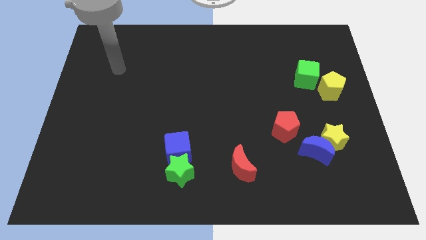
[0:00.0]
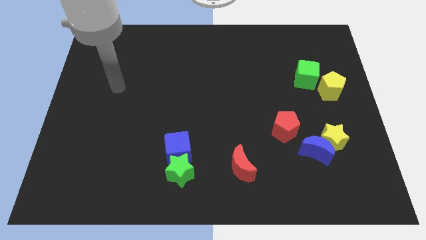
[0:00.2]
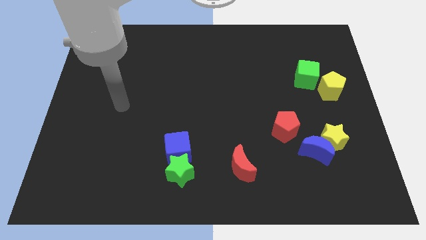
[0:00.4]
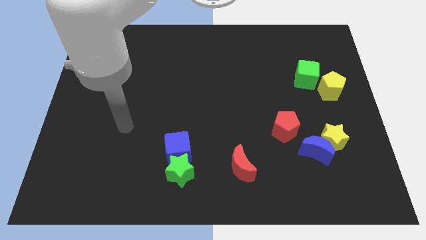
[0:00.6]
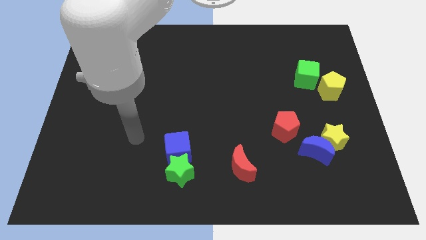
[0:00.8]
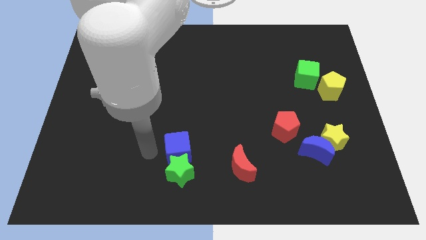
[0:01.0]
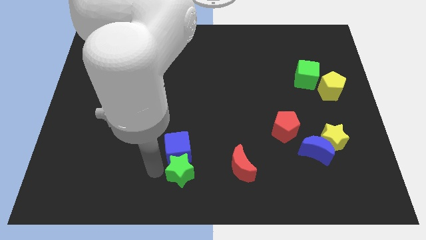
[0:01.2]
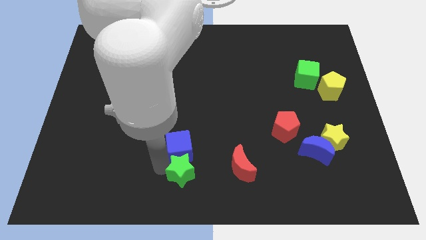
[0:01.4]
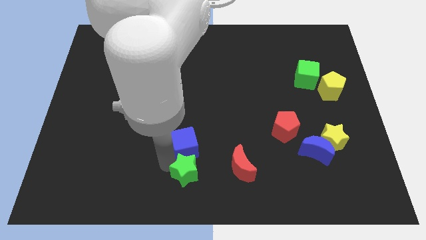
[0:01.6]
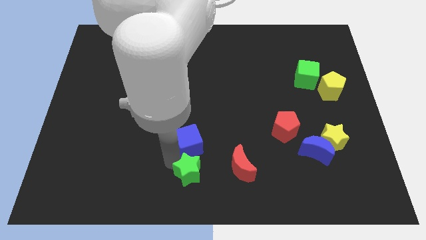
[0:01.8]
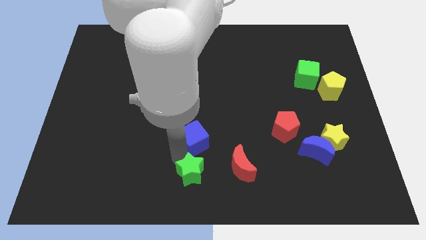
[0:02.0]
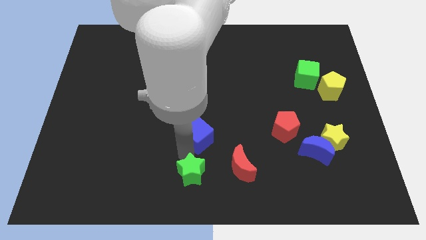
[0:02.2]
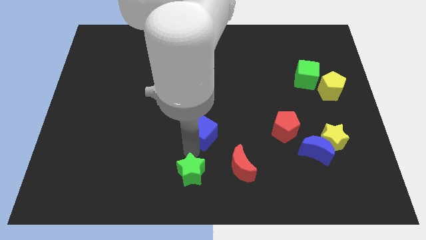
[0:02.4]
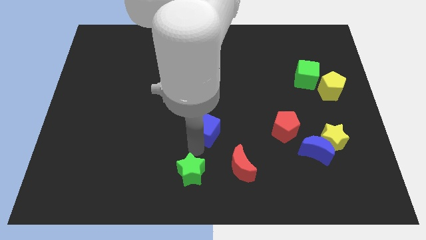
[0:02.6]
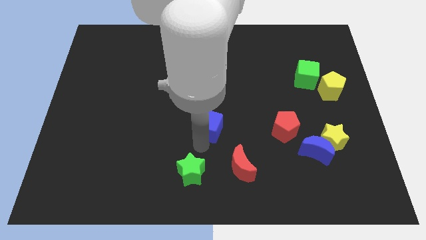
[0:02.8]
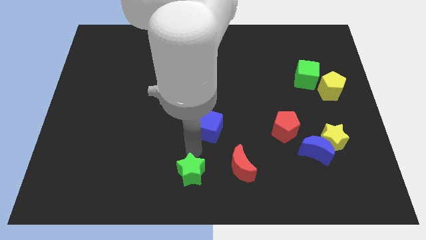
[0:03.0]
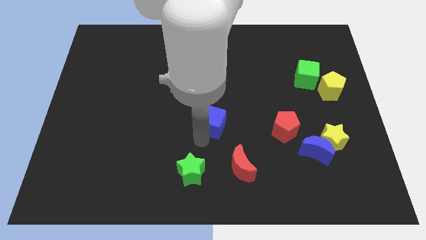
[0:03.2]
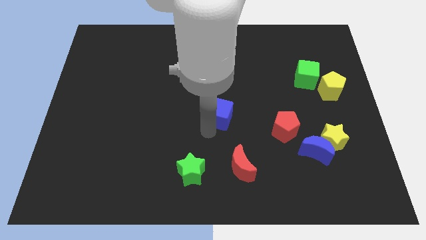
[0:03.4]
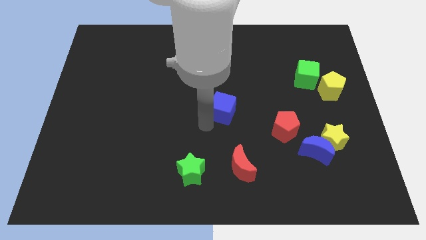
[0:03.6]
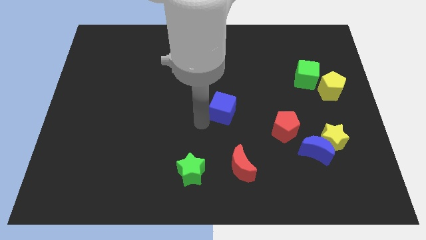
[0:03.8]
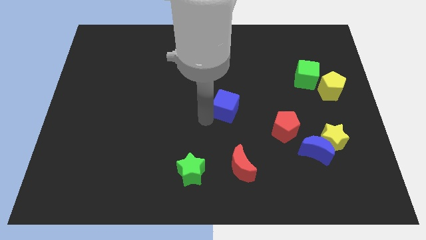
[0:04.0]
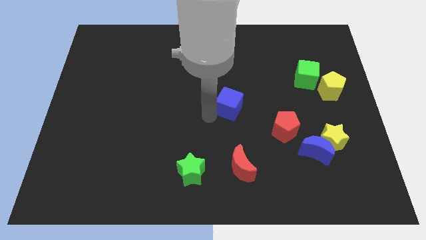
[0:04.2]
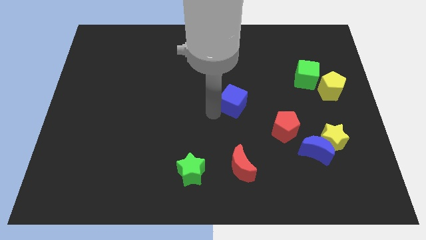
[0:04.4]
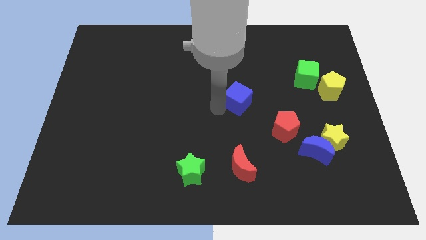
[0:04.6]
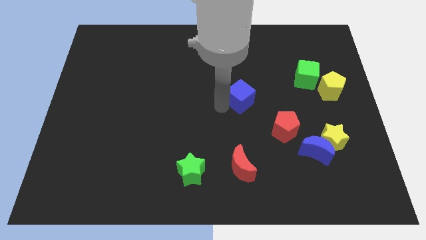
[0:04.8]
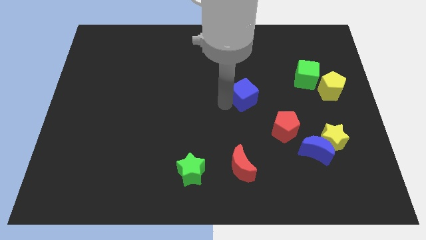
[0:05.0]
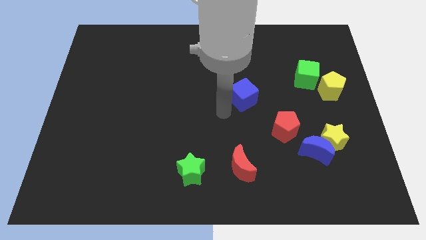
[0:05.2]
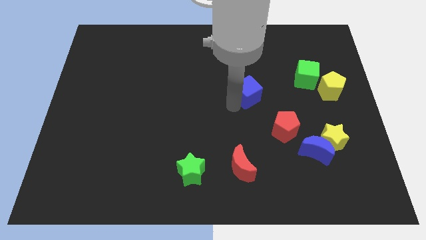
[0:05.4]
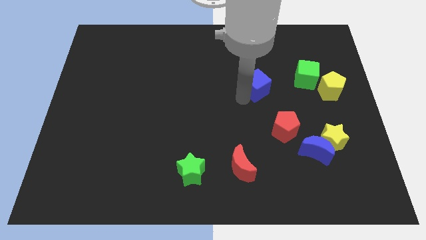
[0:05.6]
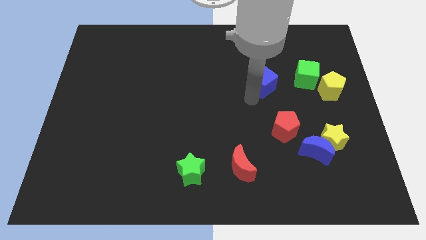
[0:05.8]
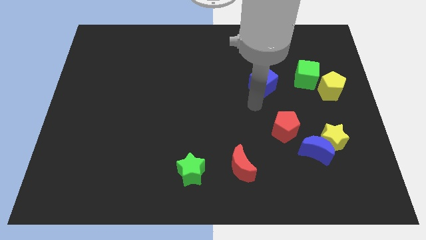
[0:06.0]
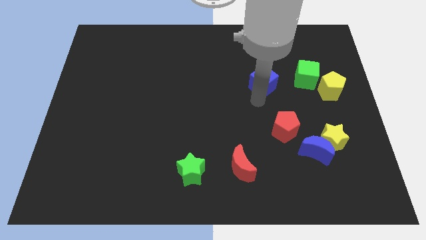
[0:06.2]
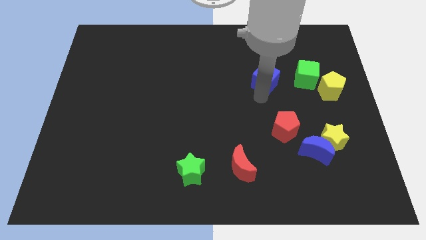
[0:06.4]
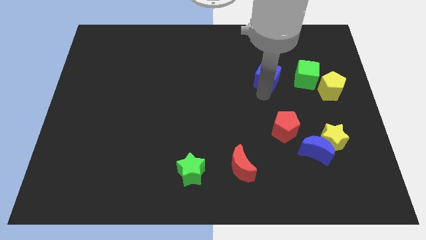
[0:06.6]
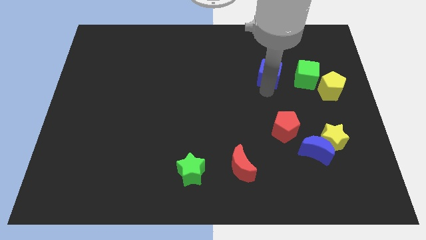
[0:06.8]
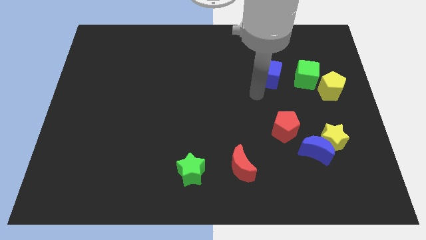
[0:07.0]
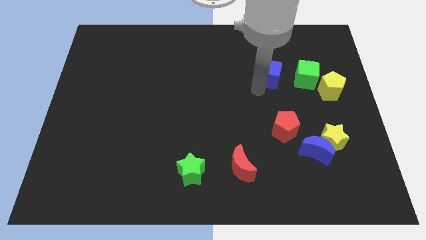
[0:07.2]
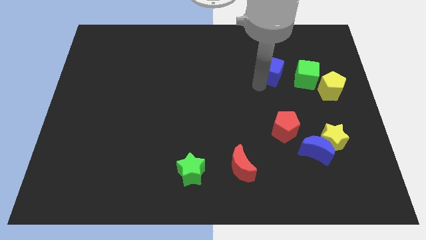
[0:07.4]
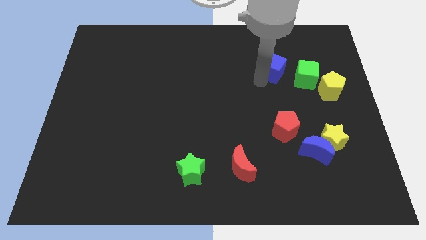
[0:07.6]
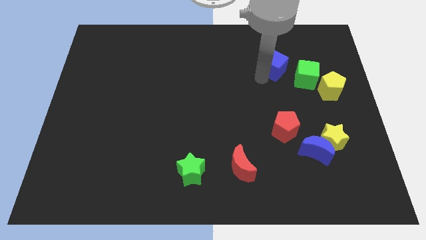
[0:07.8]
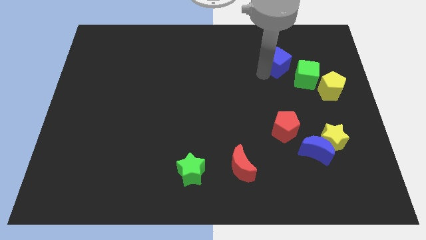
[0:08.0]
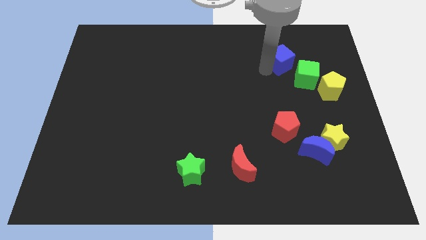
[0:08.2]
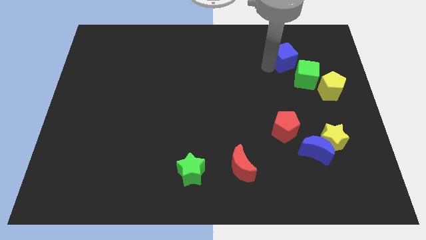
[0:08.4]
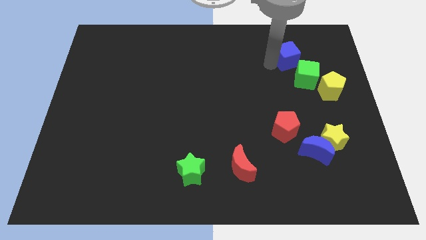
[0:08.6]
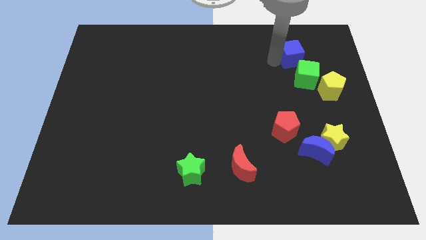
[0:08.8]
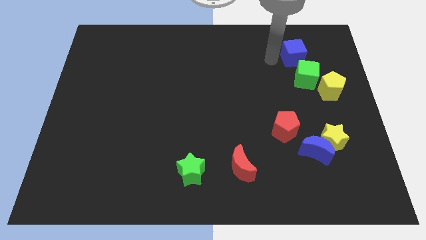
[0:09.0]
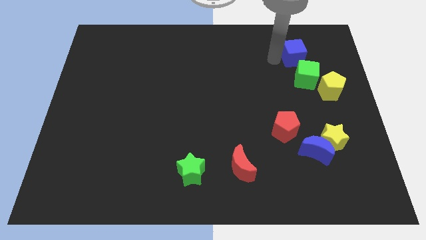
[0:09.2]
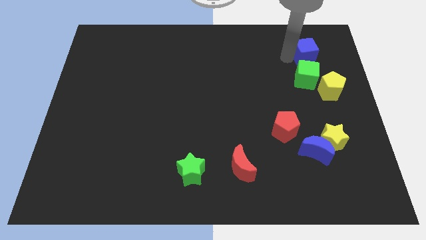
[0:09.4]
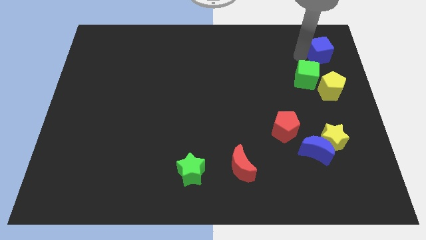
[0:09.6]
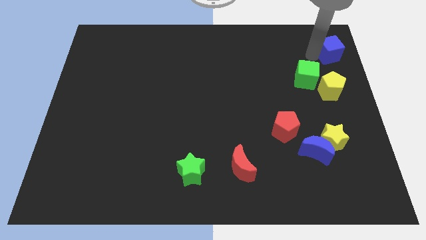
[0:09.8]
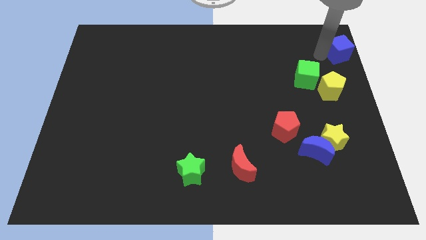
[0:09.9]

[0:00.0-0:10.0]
put the blue cube to the top right of the board

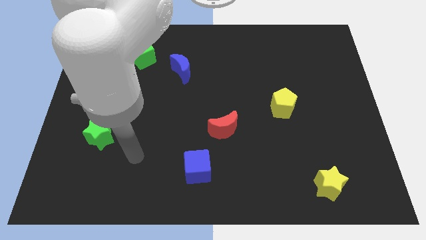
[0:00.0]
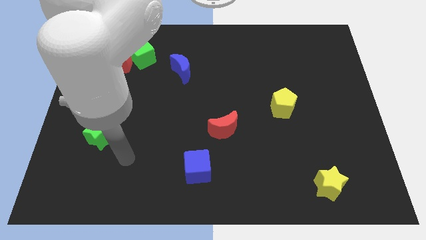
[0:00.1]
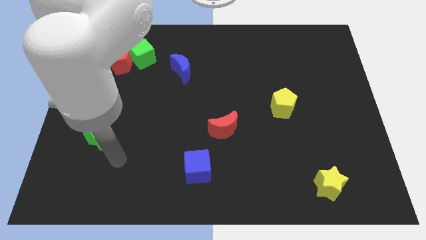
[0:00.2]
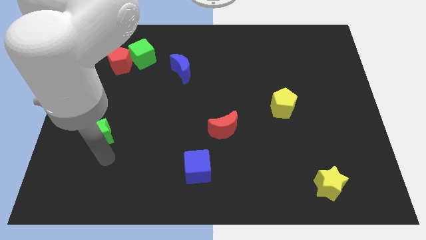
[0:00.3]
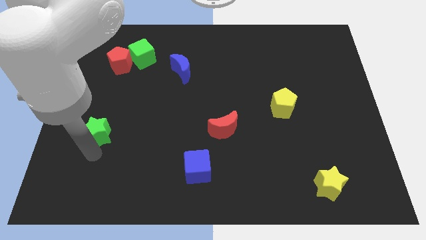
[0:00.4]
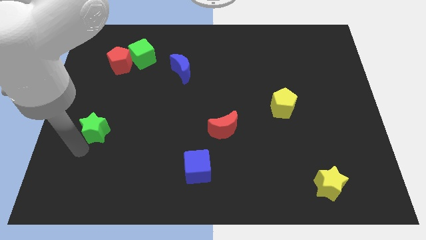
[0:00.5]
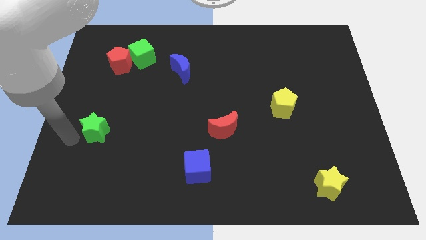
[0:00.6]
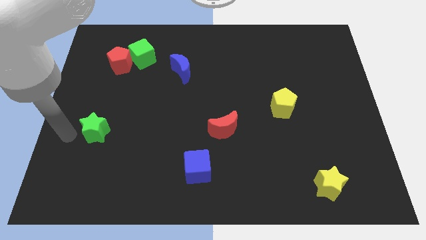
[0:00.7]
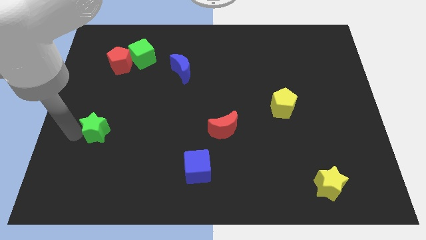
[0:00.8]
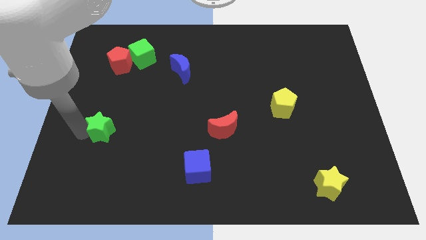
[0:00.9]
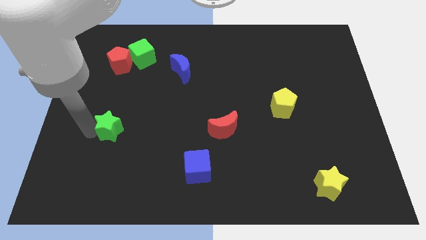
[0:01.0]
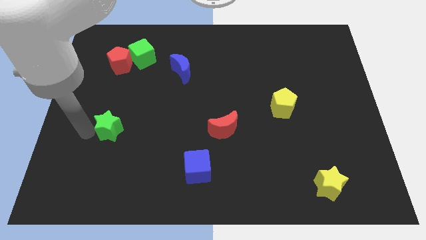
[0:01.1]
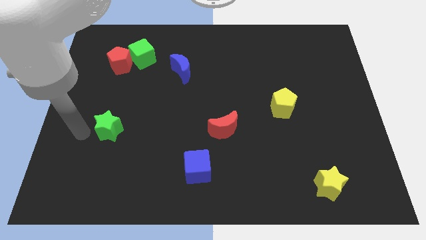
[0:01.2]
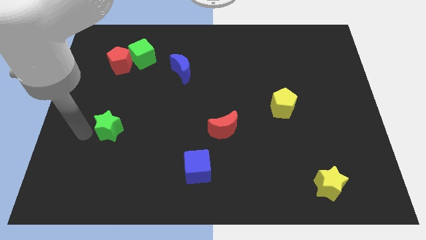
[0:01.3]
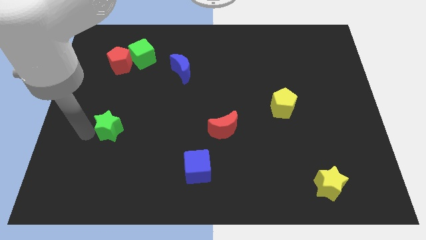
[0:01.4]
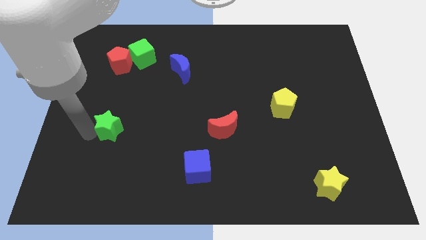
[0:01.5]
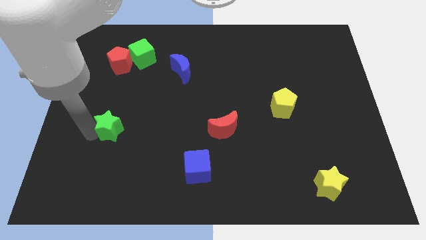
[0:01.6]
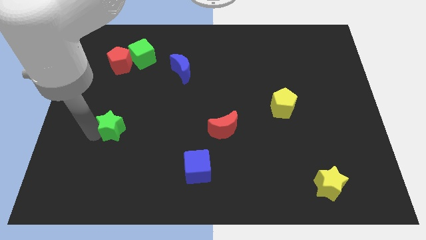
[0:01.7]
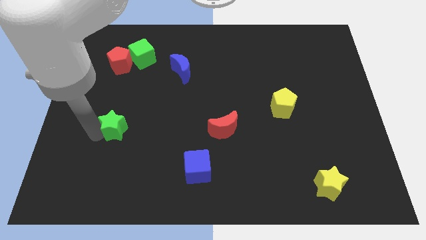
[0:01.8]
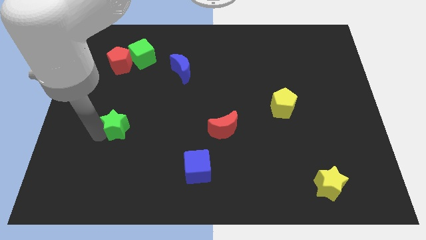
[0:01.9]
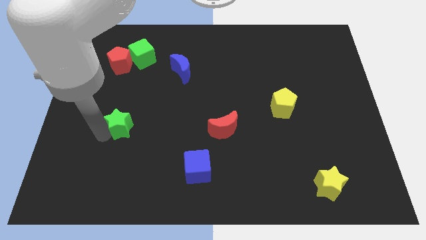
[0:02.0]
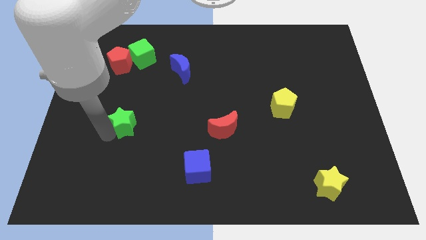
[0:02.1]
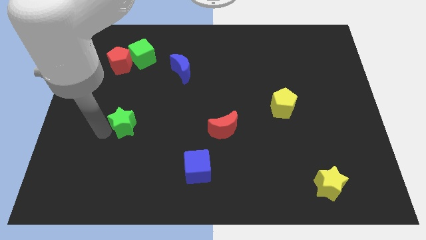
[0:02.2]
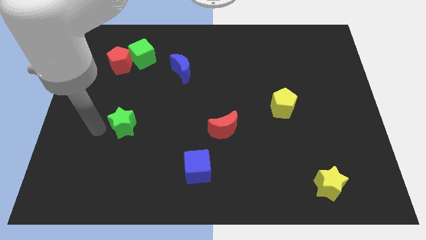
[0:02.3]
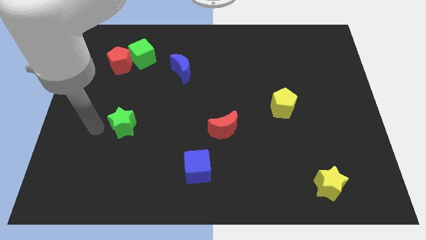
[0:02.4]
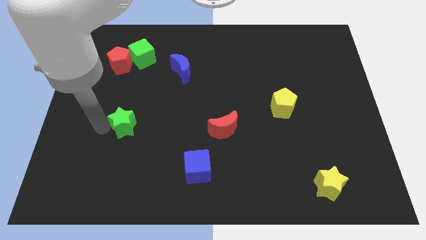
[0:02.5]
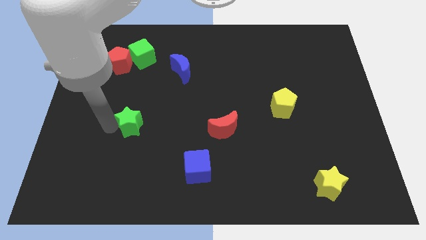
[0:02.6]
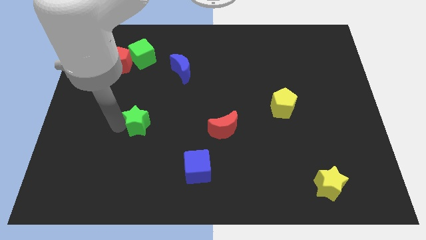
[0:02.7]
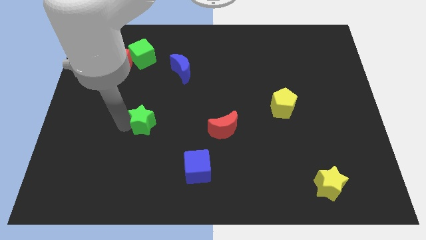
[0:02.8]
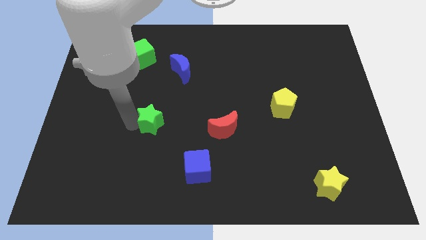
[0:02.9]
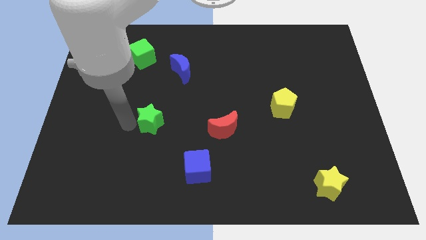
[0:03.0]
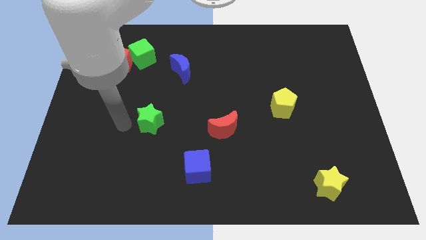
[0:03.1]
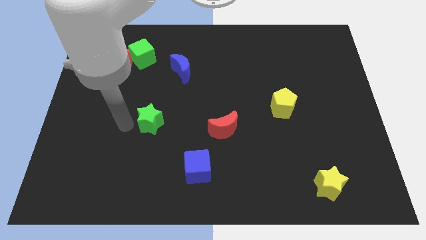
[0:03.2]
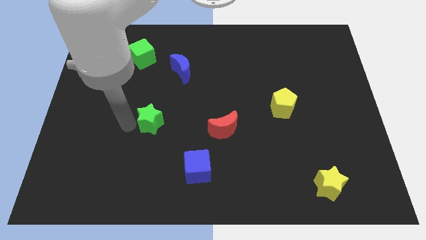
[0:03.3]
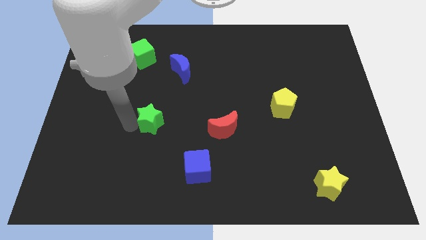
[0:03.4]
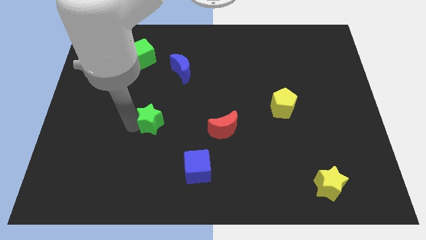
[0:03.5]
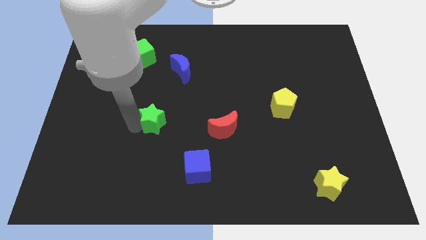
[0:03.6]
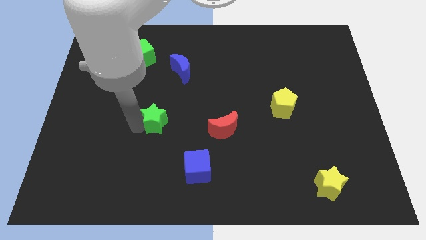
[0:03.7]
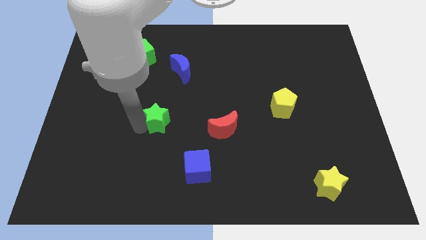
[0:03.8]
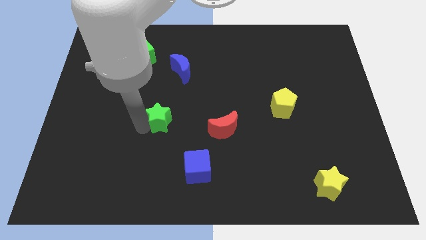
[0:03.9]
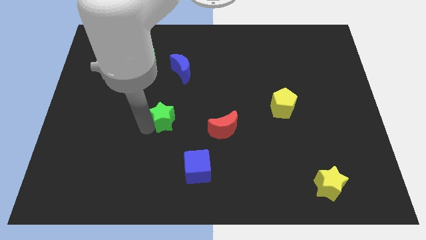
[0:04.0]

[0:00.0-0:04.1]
move the green star to the center of the board
